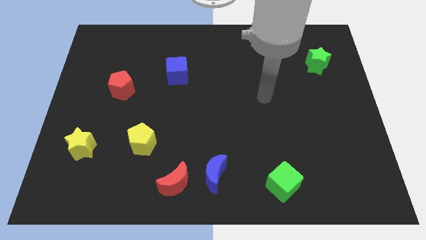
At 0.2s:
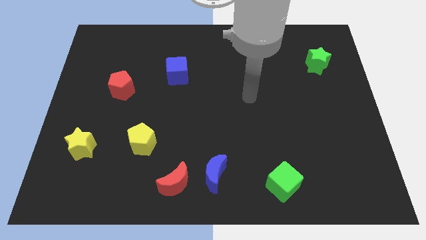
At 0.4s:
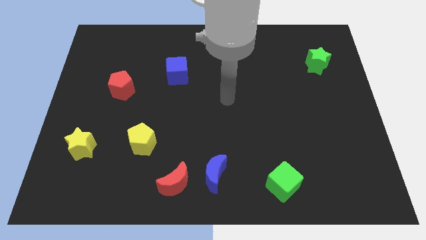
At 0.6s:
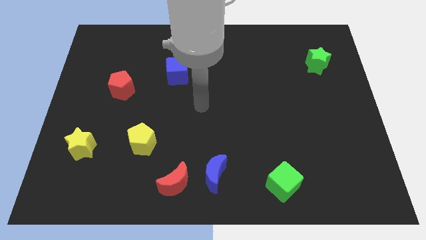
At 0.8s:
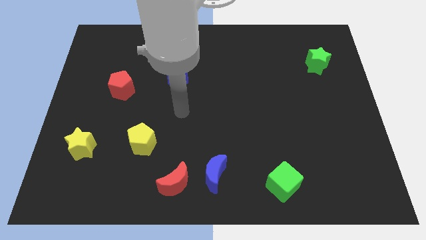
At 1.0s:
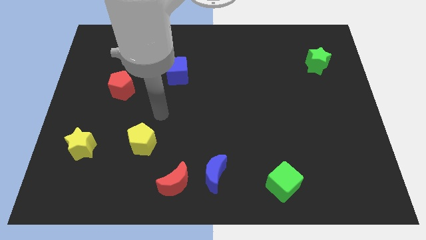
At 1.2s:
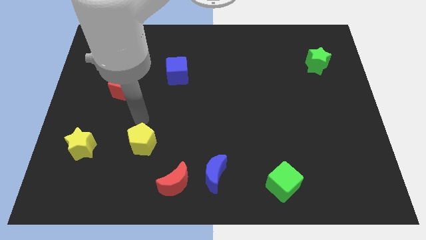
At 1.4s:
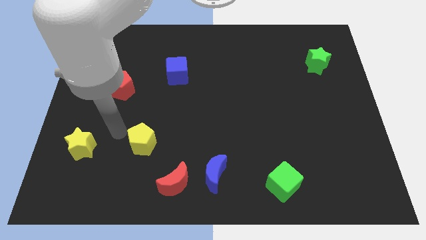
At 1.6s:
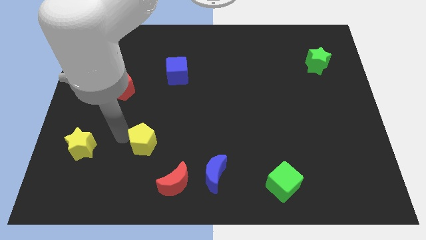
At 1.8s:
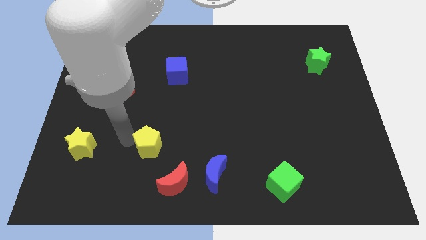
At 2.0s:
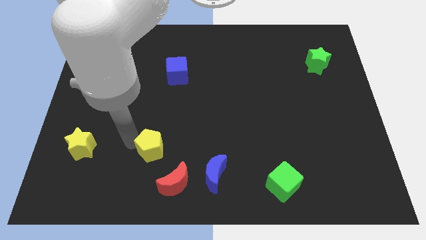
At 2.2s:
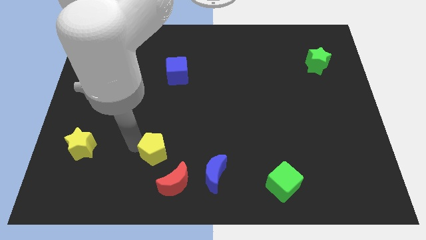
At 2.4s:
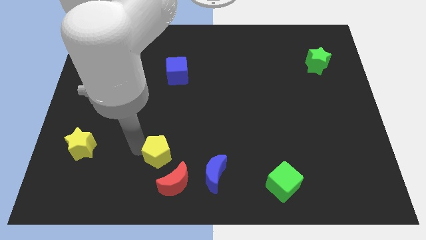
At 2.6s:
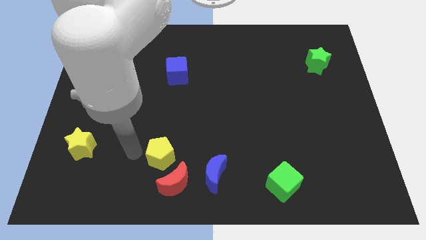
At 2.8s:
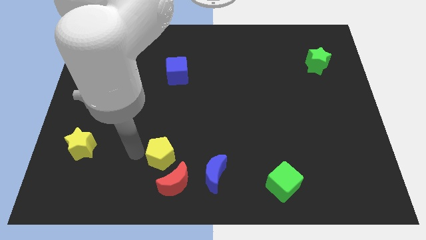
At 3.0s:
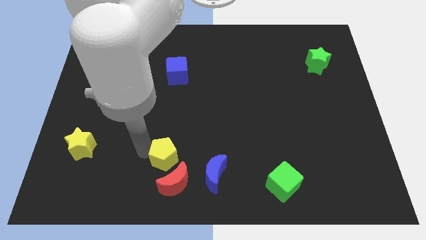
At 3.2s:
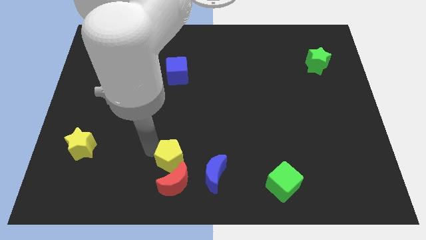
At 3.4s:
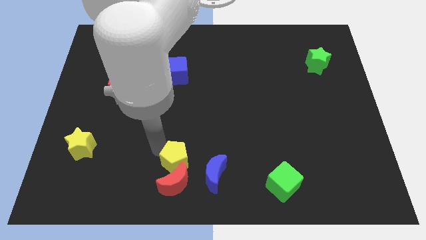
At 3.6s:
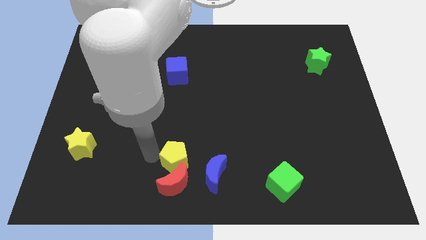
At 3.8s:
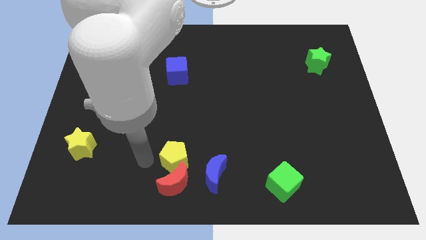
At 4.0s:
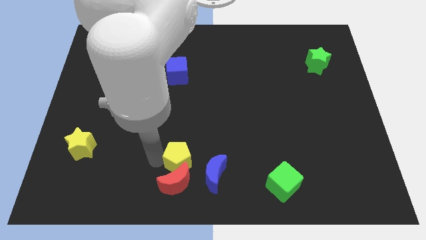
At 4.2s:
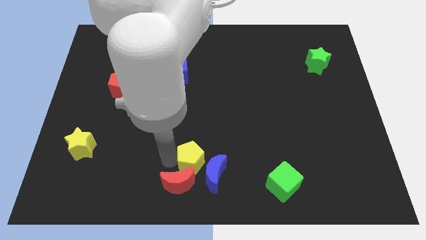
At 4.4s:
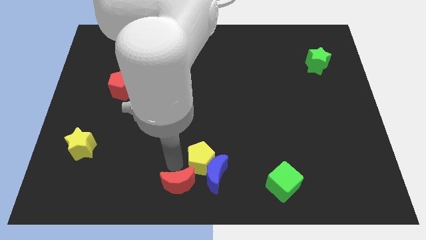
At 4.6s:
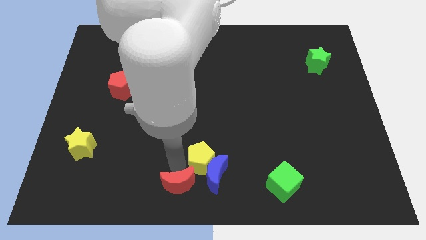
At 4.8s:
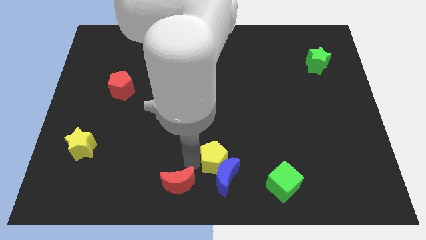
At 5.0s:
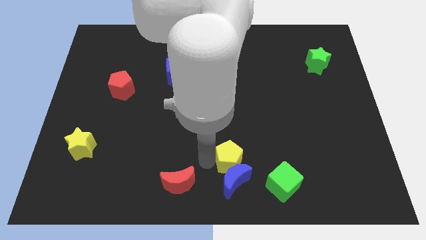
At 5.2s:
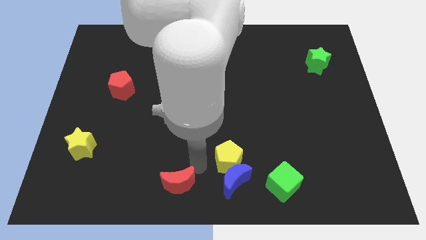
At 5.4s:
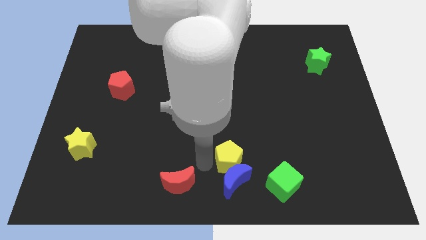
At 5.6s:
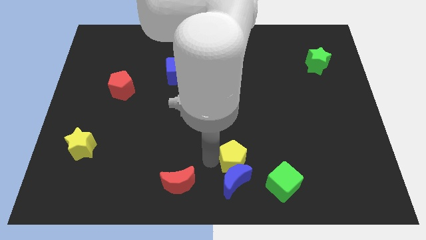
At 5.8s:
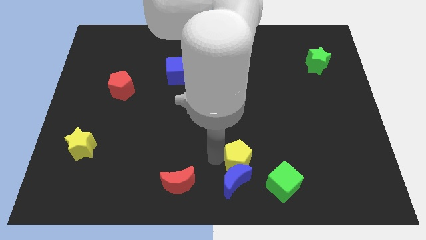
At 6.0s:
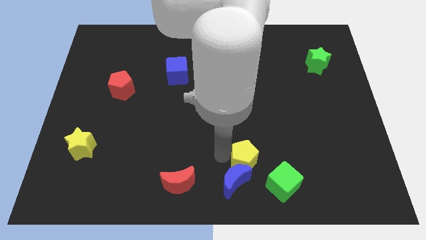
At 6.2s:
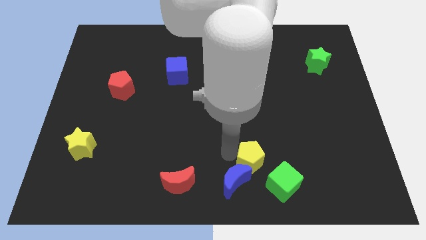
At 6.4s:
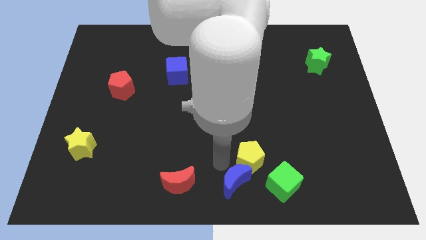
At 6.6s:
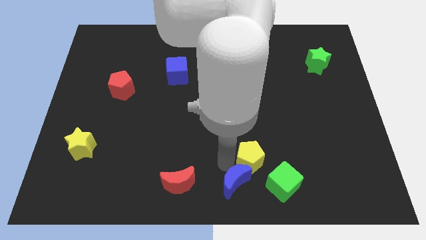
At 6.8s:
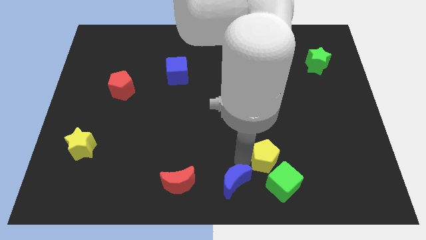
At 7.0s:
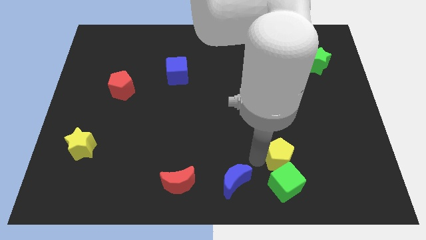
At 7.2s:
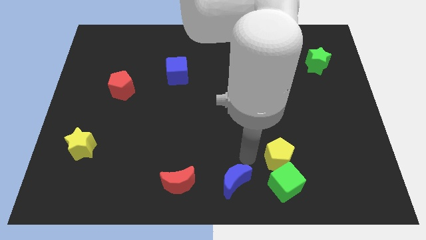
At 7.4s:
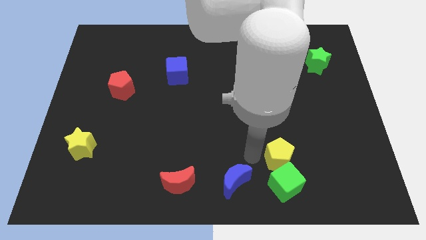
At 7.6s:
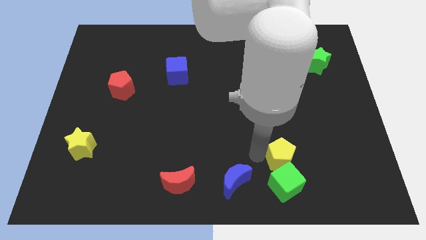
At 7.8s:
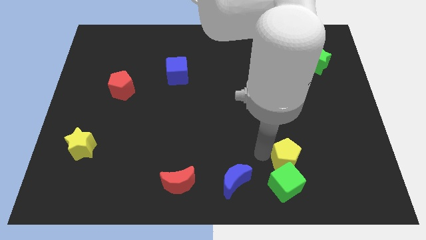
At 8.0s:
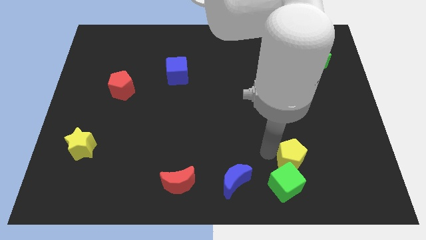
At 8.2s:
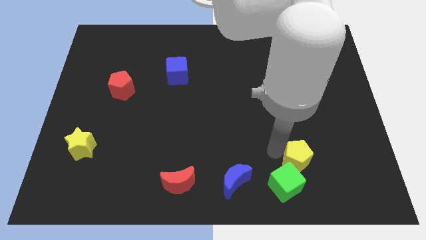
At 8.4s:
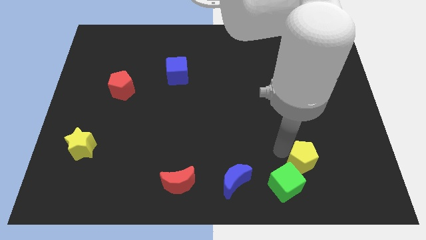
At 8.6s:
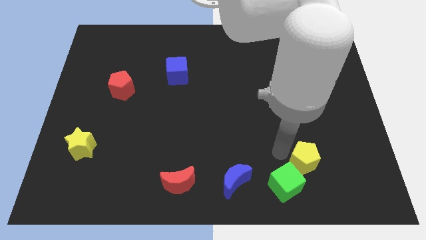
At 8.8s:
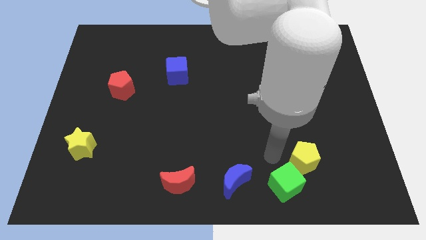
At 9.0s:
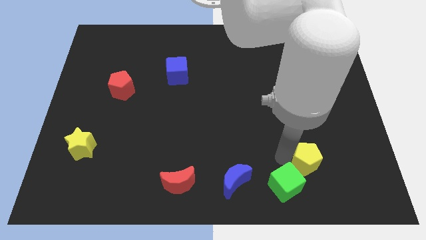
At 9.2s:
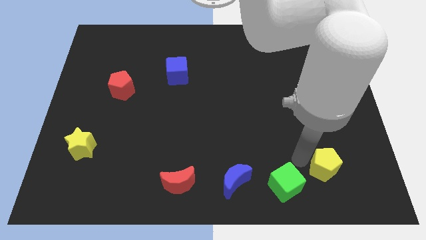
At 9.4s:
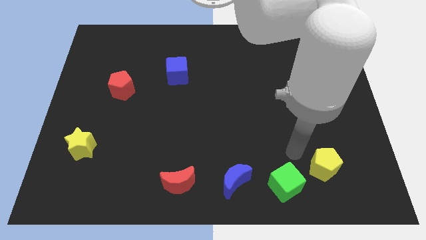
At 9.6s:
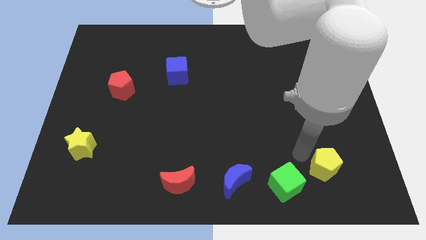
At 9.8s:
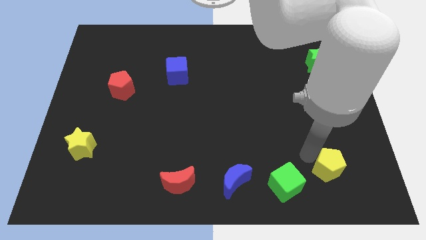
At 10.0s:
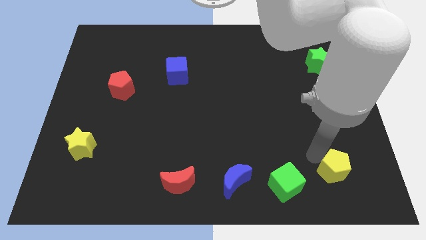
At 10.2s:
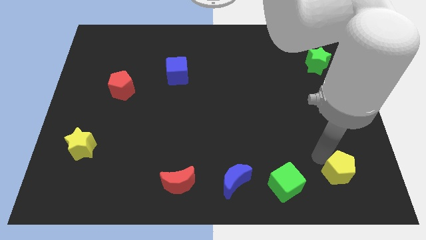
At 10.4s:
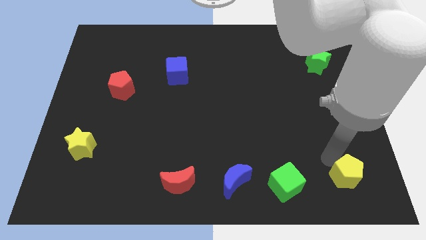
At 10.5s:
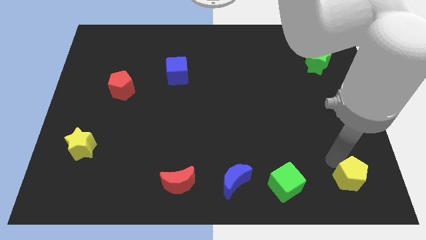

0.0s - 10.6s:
put the yellow pentagon to the bottom right of the board

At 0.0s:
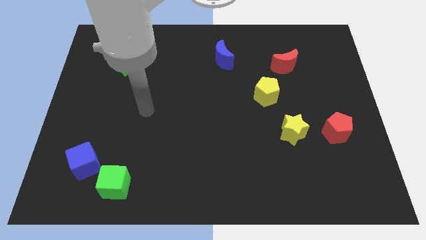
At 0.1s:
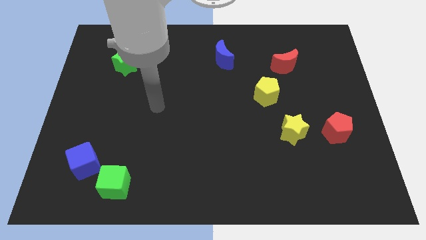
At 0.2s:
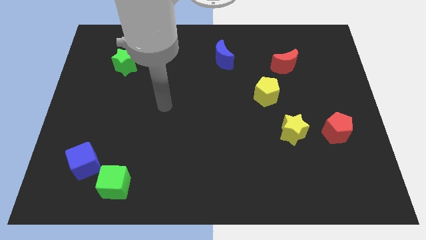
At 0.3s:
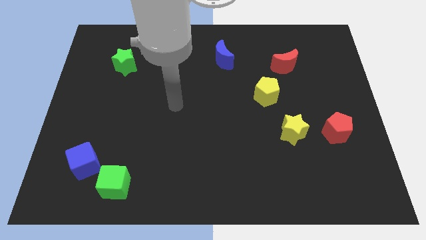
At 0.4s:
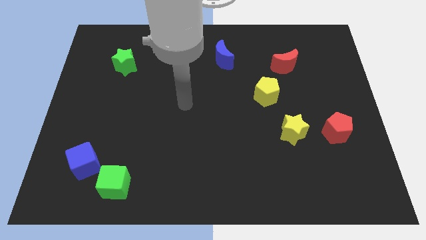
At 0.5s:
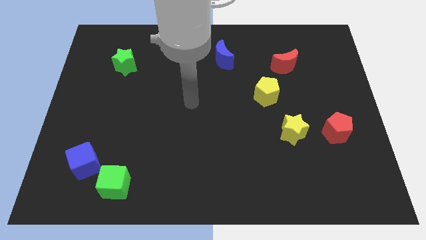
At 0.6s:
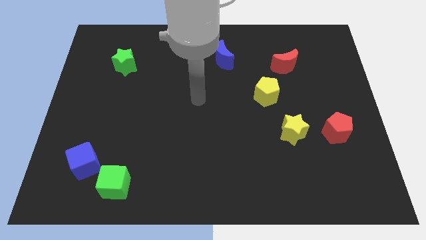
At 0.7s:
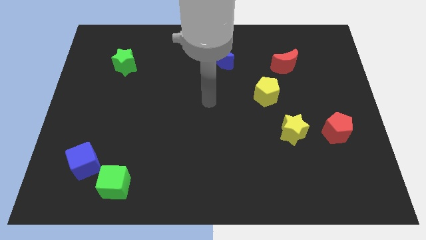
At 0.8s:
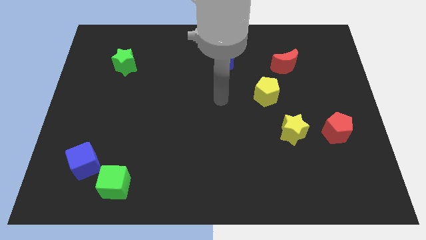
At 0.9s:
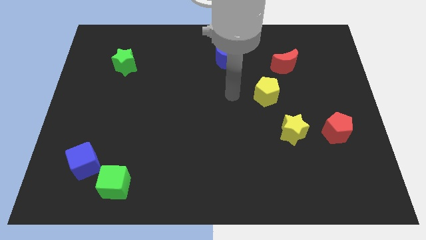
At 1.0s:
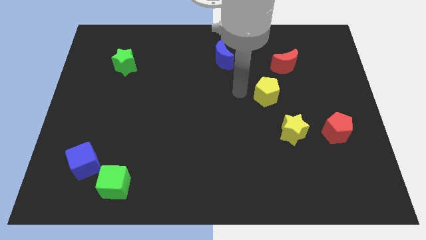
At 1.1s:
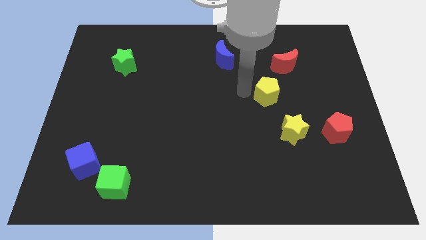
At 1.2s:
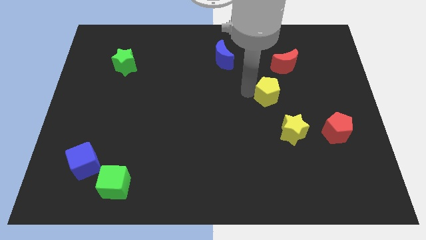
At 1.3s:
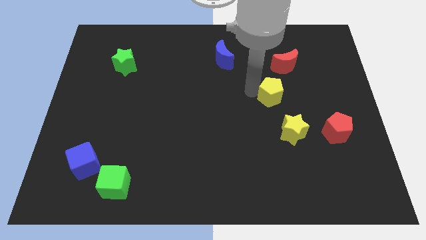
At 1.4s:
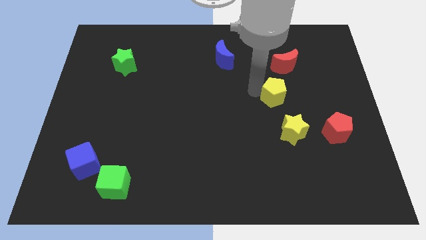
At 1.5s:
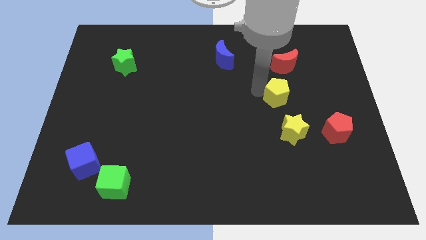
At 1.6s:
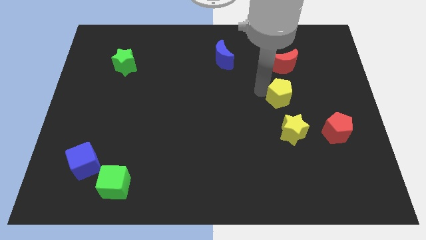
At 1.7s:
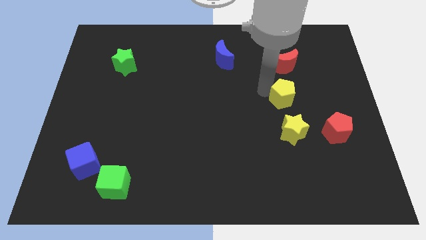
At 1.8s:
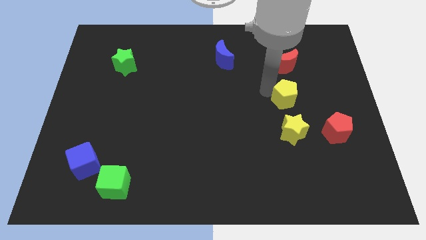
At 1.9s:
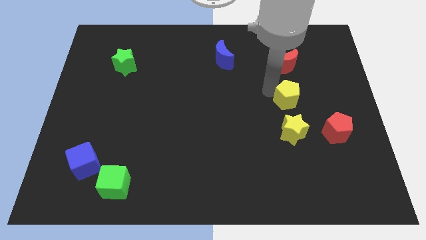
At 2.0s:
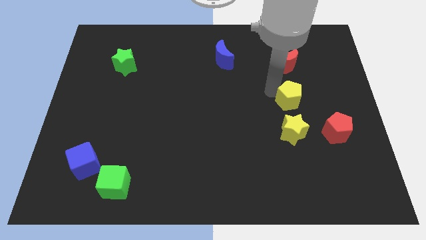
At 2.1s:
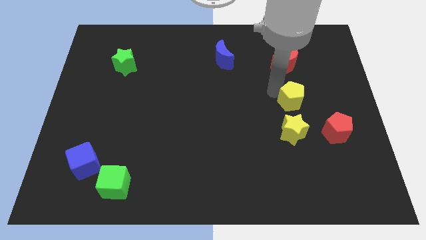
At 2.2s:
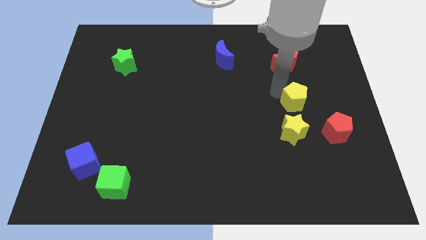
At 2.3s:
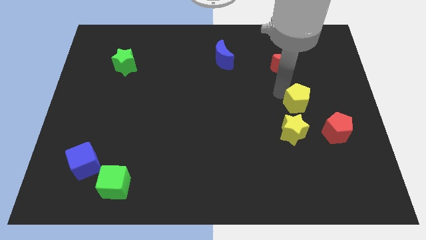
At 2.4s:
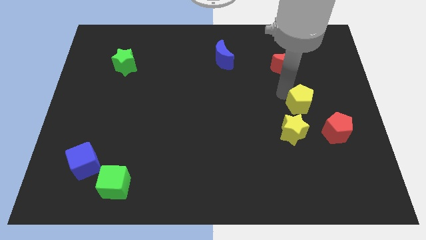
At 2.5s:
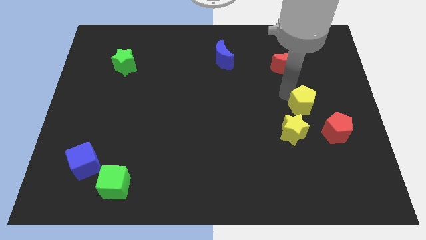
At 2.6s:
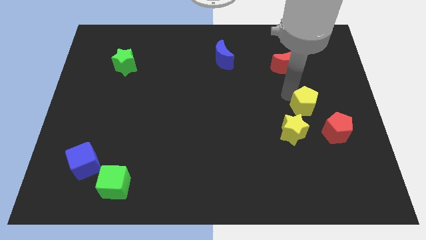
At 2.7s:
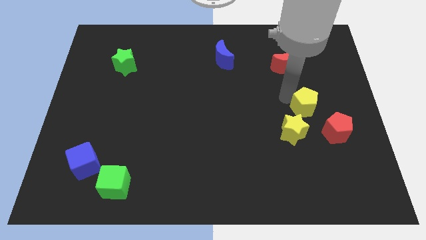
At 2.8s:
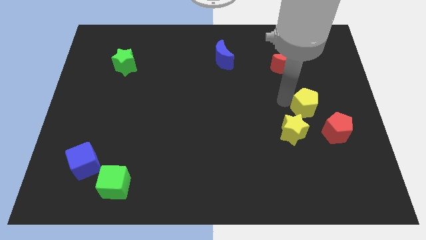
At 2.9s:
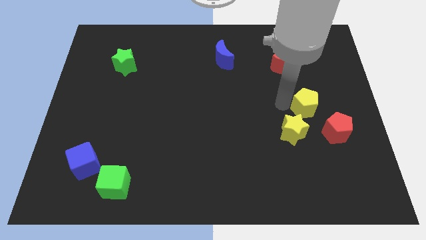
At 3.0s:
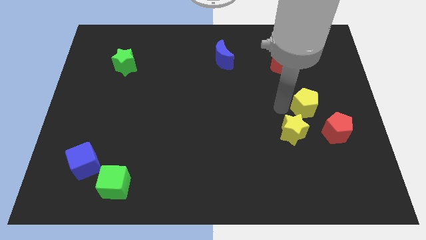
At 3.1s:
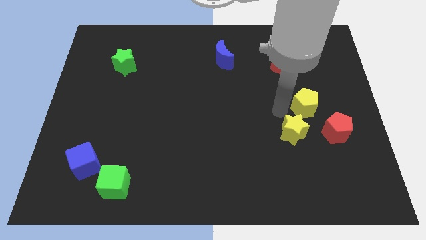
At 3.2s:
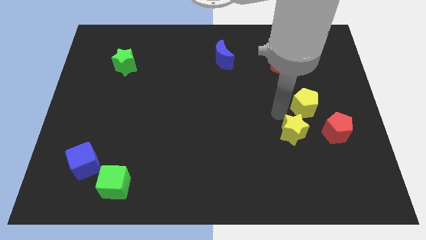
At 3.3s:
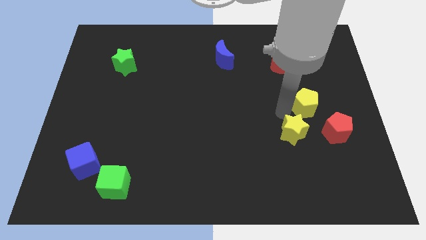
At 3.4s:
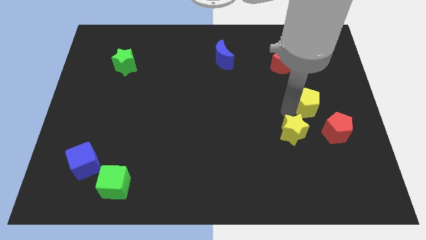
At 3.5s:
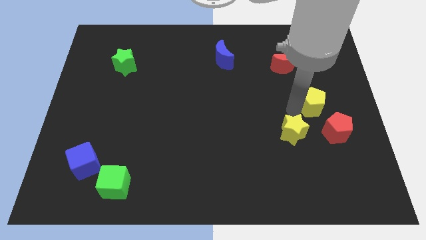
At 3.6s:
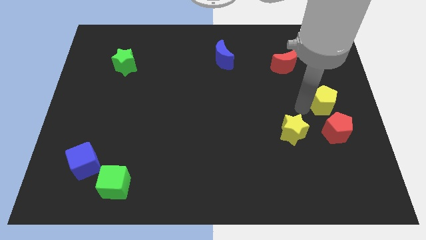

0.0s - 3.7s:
put the yellow pentagon to the center right
